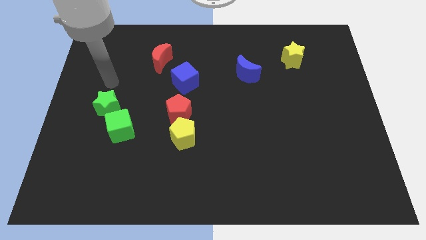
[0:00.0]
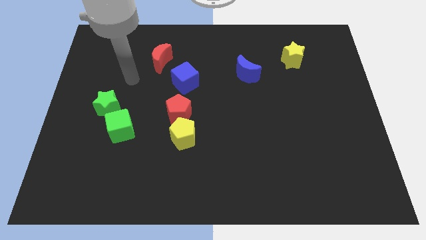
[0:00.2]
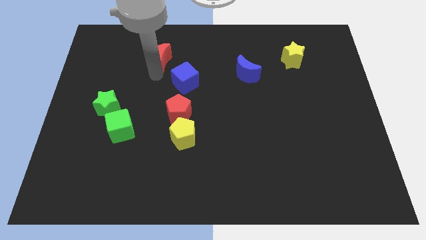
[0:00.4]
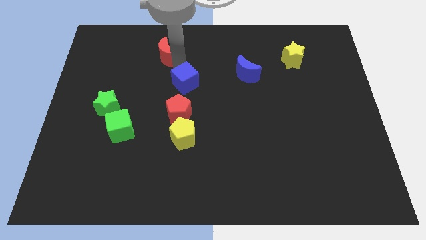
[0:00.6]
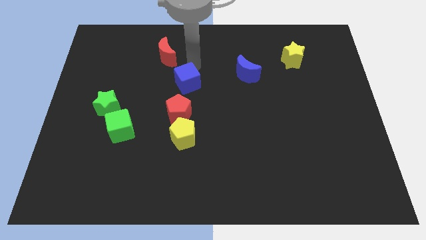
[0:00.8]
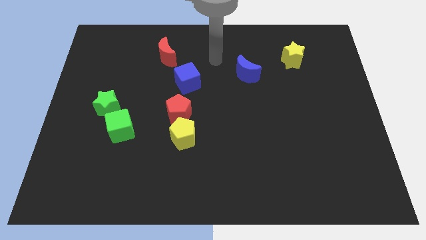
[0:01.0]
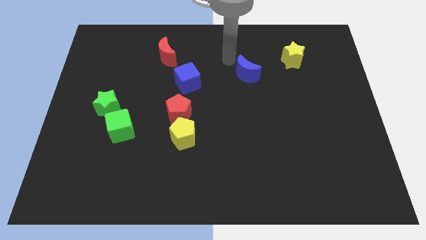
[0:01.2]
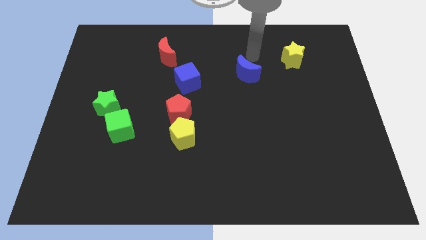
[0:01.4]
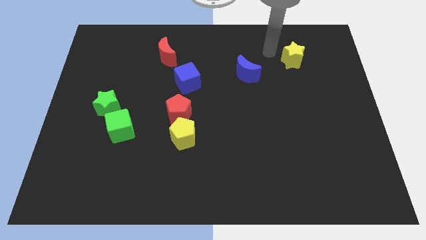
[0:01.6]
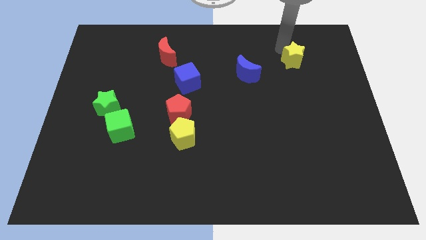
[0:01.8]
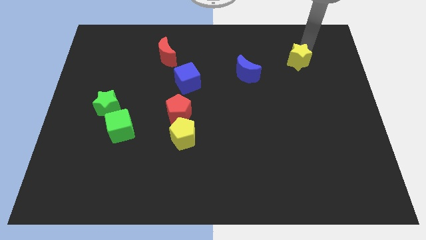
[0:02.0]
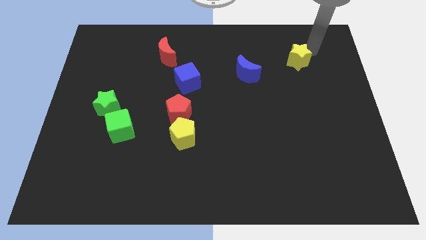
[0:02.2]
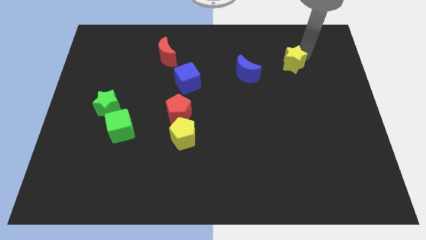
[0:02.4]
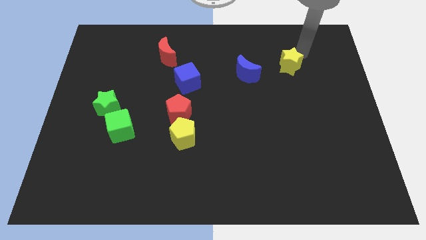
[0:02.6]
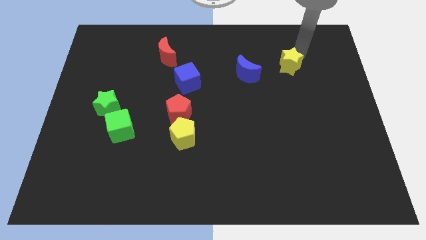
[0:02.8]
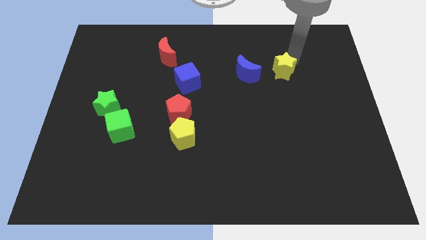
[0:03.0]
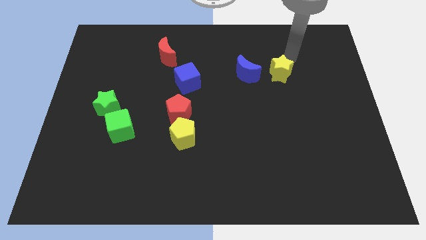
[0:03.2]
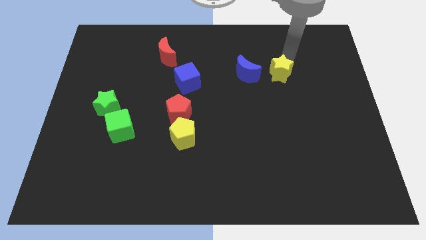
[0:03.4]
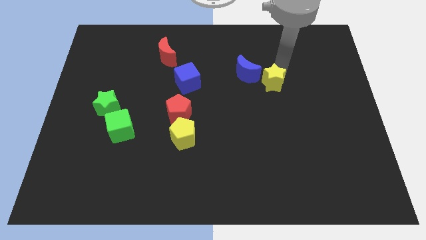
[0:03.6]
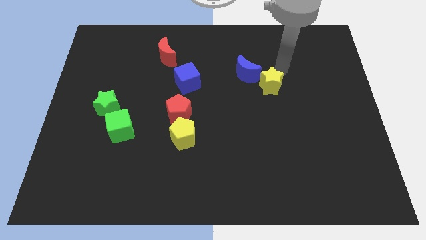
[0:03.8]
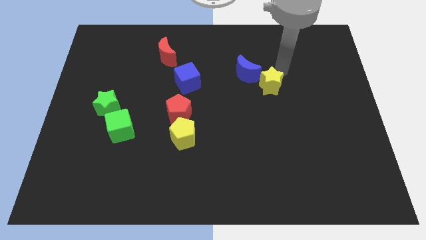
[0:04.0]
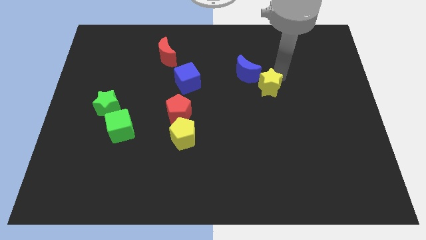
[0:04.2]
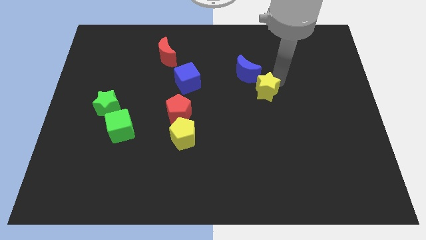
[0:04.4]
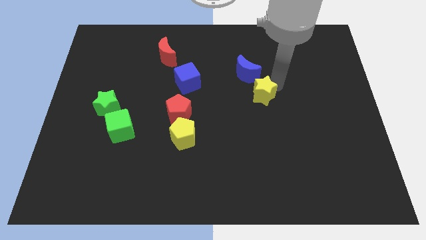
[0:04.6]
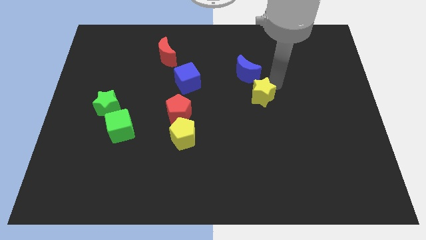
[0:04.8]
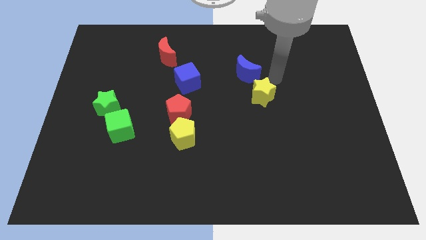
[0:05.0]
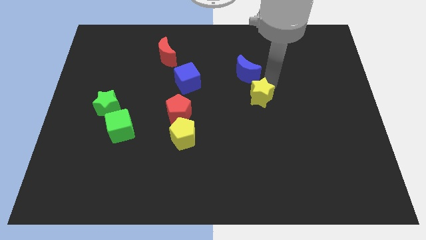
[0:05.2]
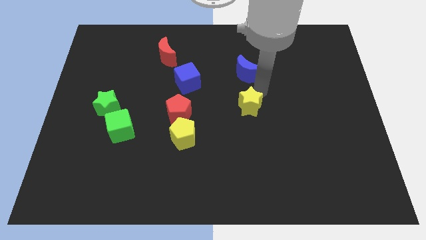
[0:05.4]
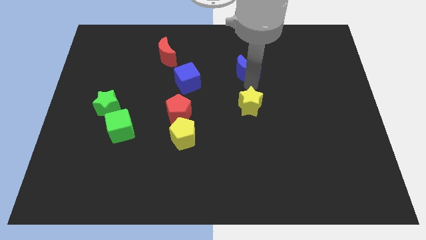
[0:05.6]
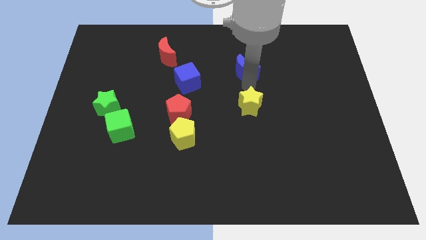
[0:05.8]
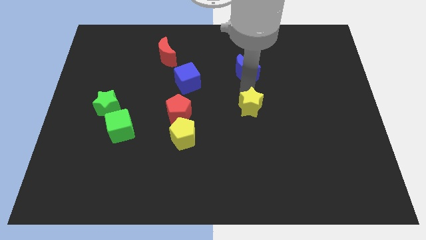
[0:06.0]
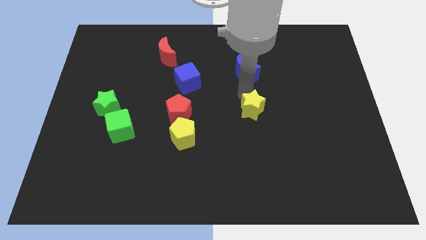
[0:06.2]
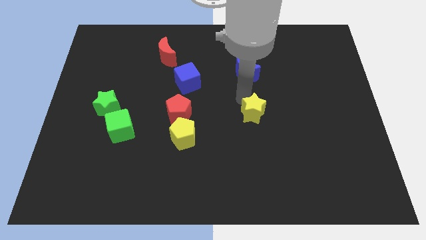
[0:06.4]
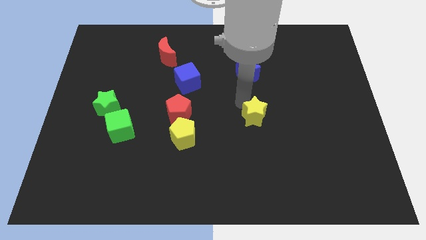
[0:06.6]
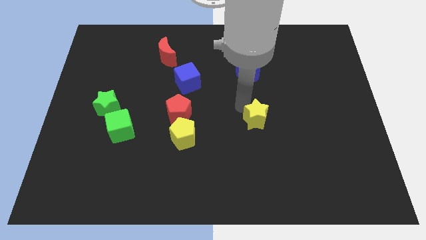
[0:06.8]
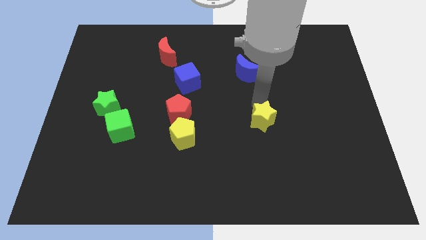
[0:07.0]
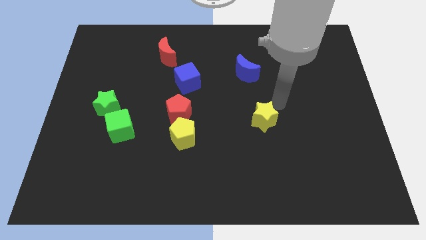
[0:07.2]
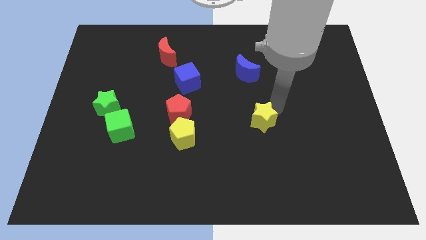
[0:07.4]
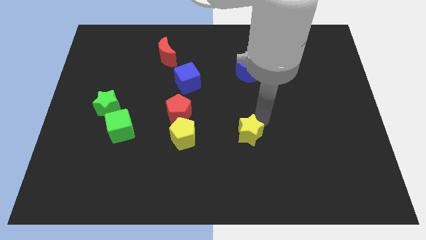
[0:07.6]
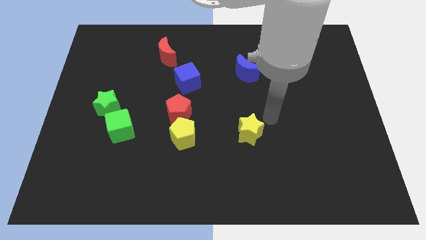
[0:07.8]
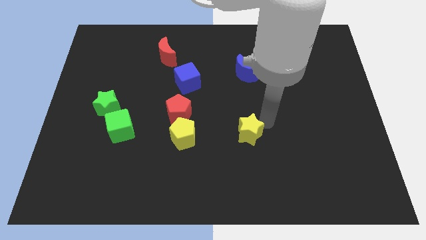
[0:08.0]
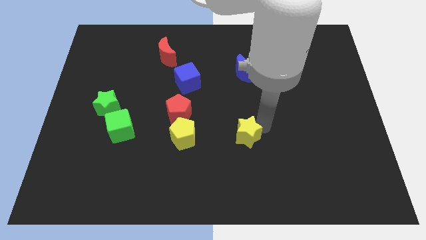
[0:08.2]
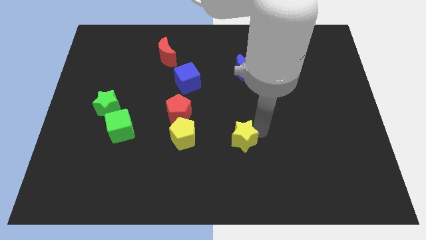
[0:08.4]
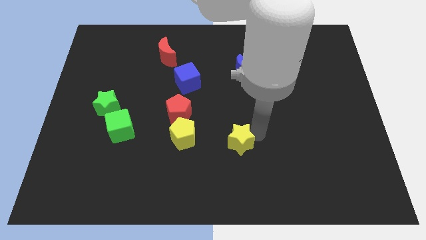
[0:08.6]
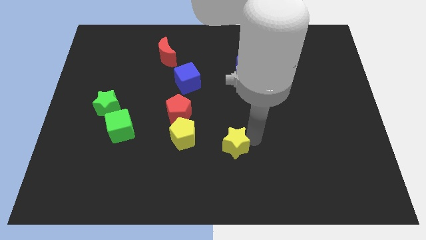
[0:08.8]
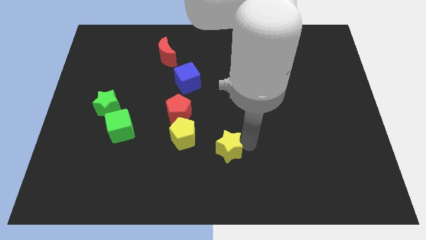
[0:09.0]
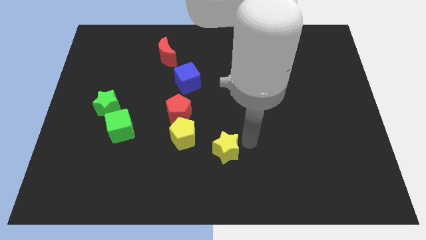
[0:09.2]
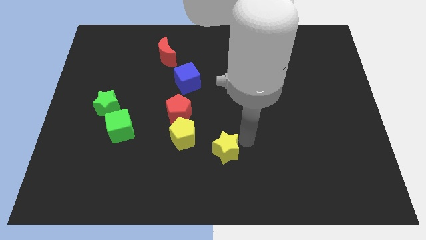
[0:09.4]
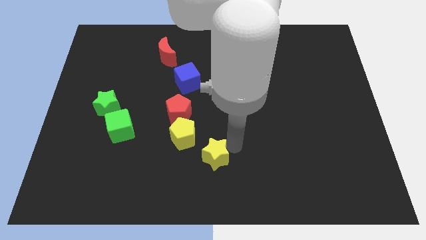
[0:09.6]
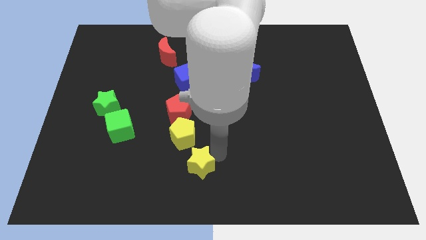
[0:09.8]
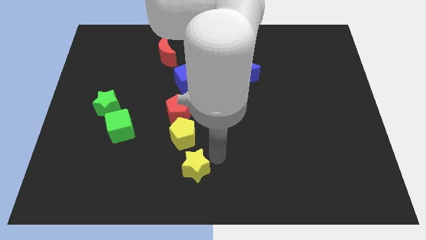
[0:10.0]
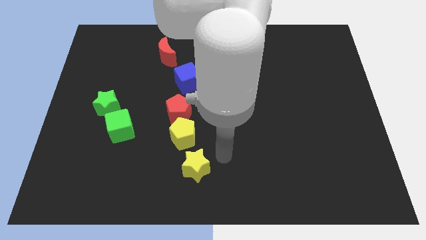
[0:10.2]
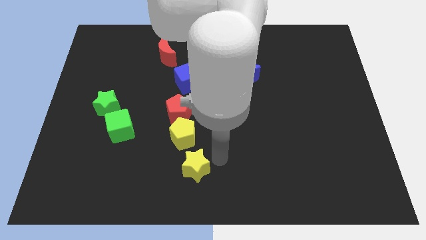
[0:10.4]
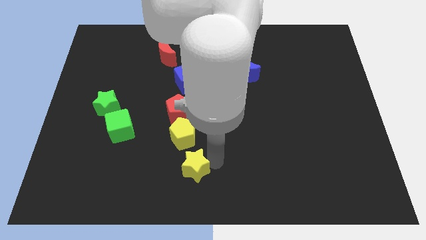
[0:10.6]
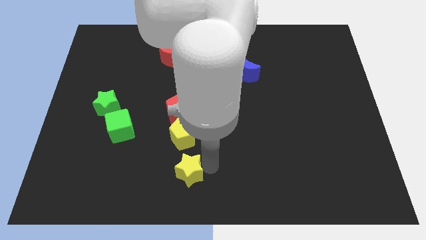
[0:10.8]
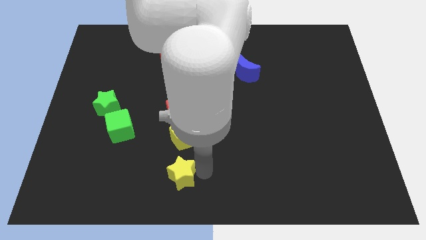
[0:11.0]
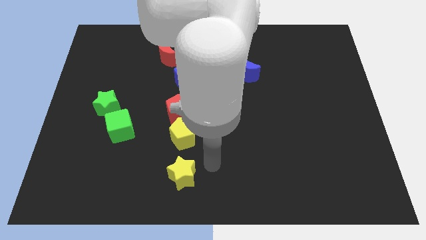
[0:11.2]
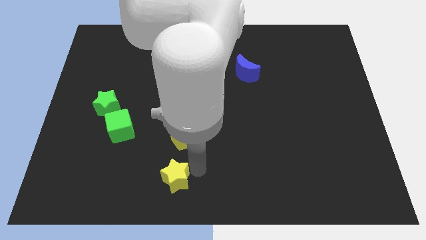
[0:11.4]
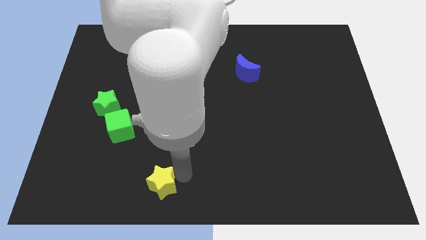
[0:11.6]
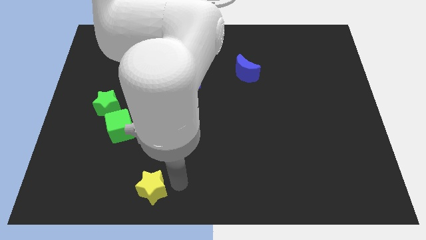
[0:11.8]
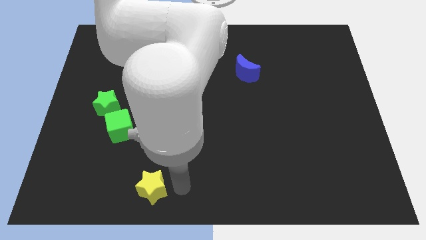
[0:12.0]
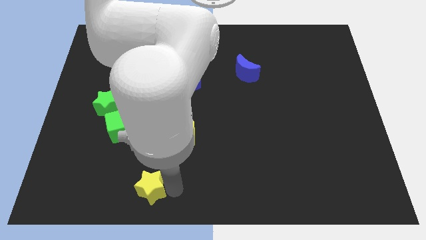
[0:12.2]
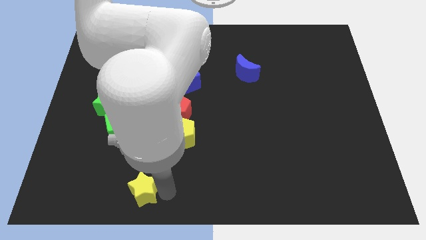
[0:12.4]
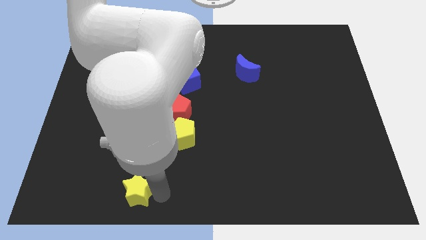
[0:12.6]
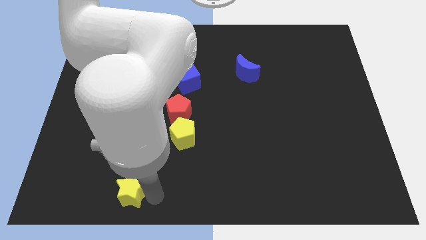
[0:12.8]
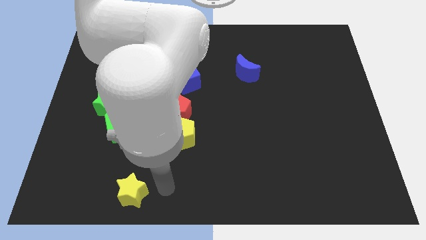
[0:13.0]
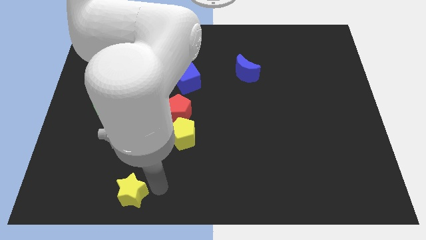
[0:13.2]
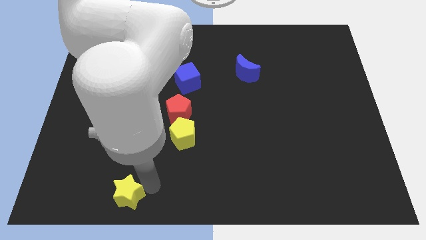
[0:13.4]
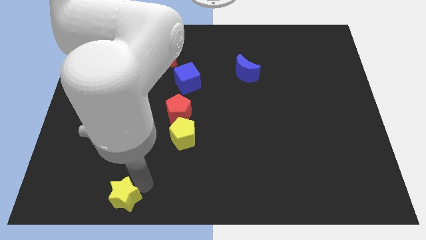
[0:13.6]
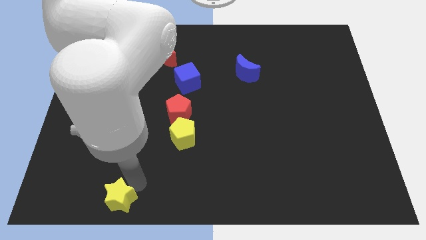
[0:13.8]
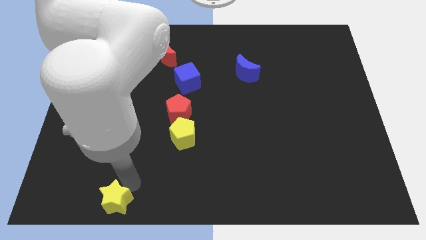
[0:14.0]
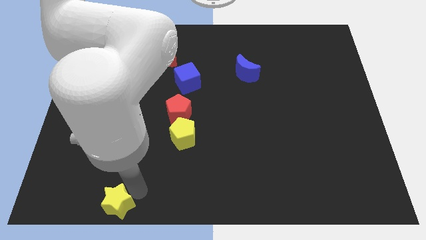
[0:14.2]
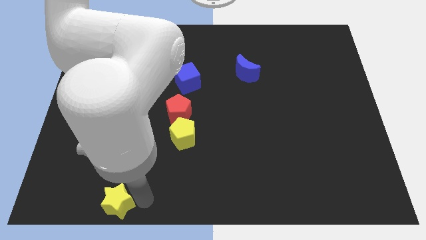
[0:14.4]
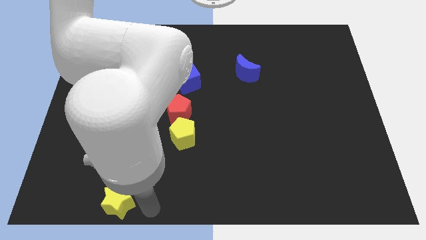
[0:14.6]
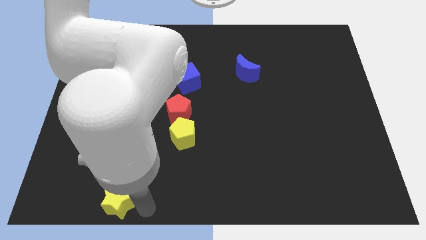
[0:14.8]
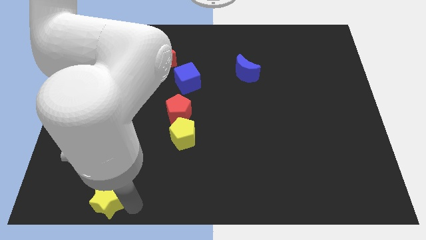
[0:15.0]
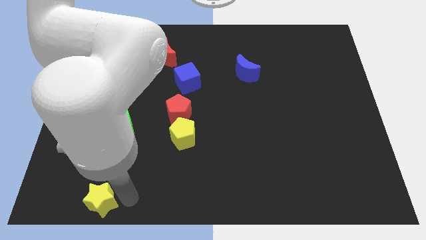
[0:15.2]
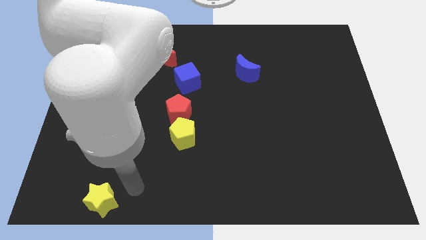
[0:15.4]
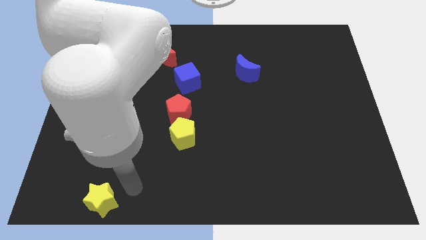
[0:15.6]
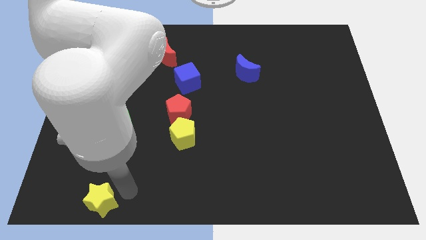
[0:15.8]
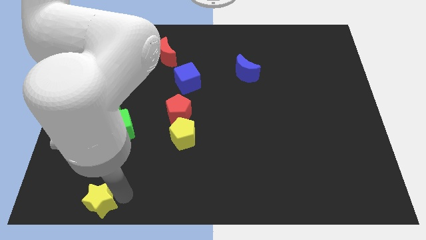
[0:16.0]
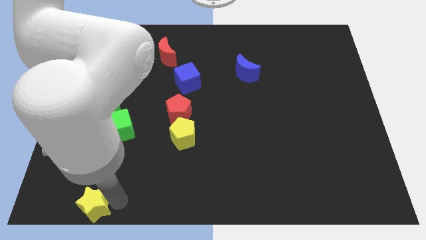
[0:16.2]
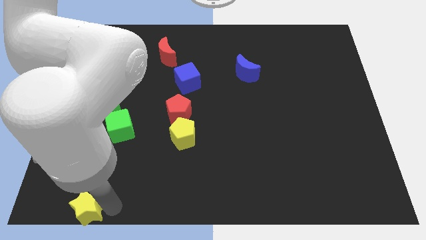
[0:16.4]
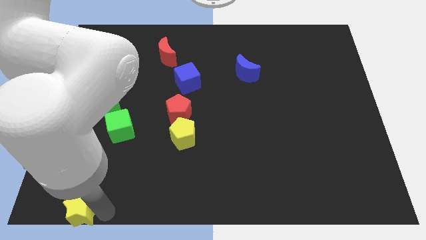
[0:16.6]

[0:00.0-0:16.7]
slide the yellow star to the lower left corner
